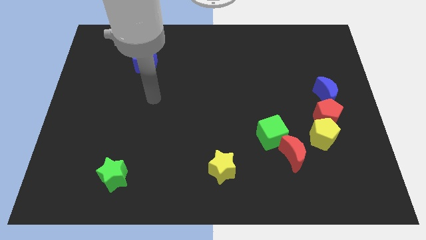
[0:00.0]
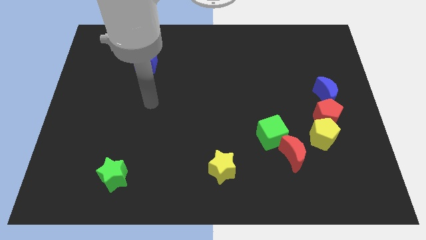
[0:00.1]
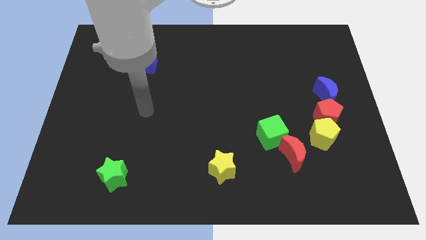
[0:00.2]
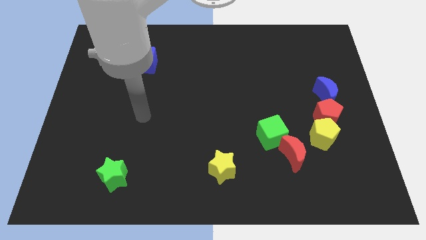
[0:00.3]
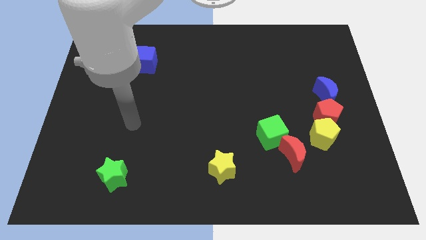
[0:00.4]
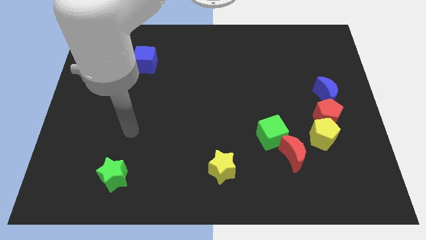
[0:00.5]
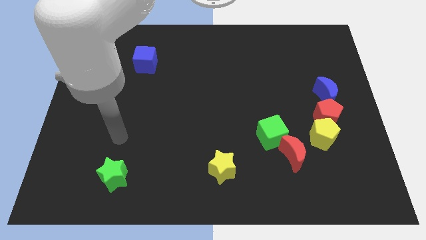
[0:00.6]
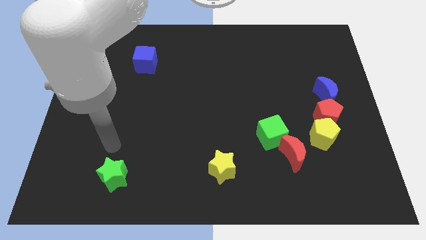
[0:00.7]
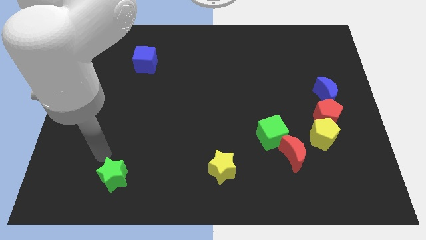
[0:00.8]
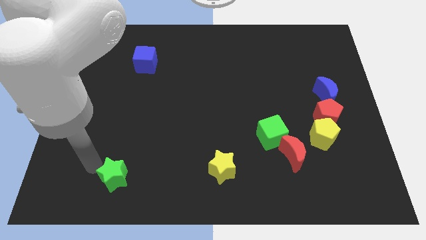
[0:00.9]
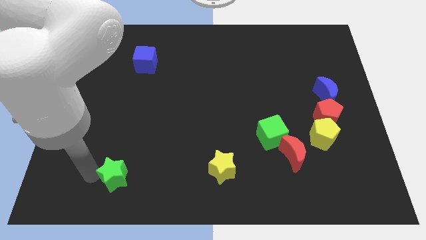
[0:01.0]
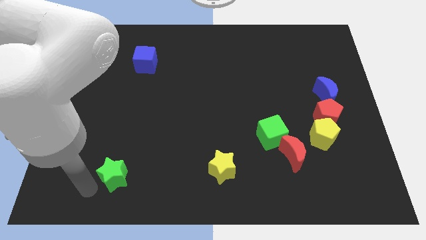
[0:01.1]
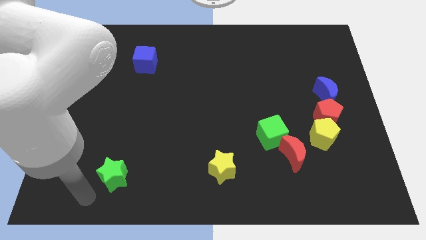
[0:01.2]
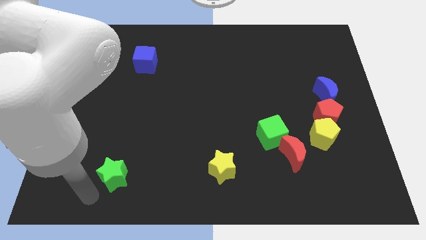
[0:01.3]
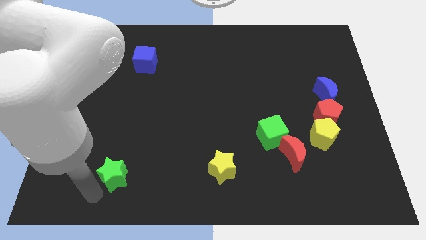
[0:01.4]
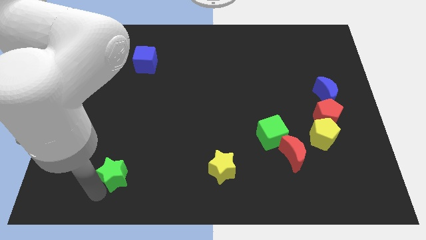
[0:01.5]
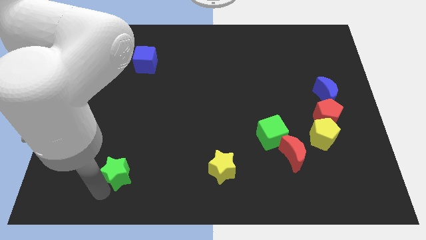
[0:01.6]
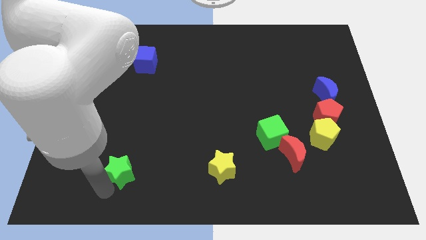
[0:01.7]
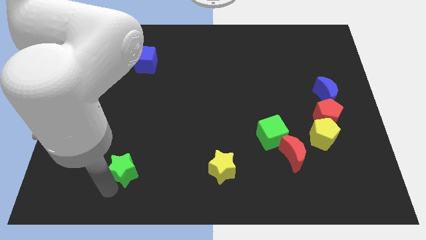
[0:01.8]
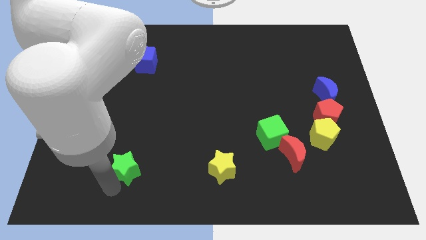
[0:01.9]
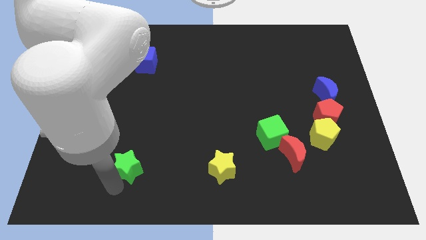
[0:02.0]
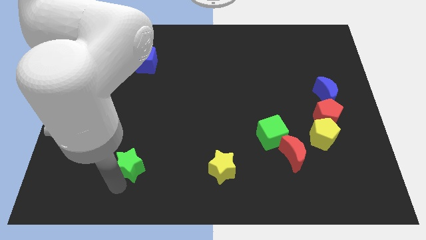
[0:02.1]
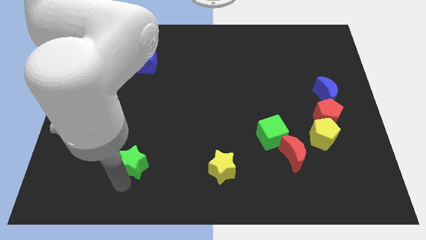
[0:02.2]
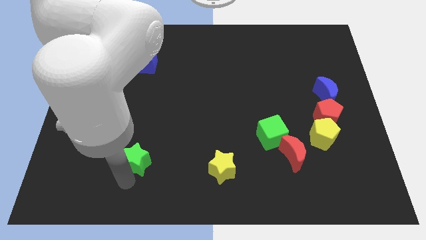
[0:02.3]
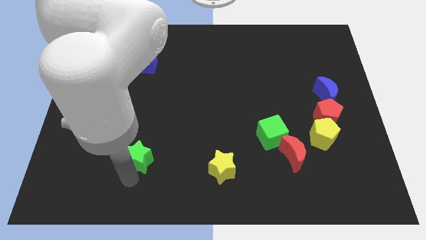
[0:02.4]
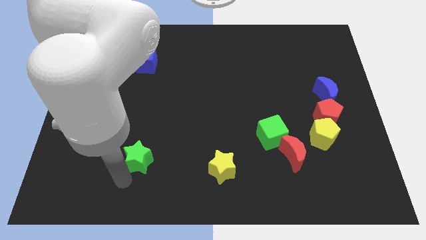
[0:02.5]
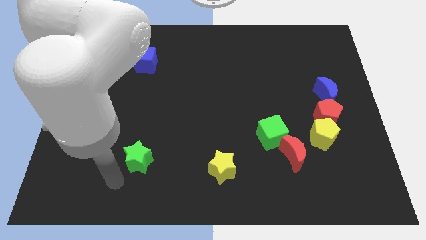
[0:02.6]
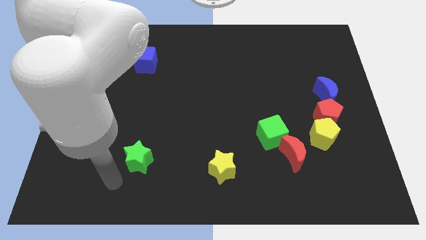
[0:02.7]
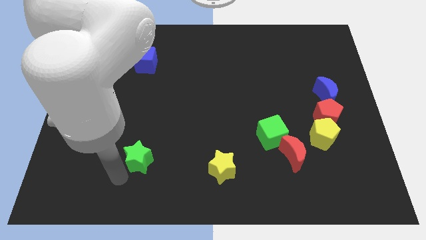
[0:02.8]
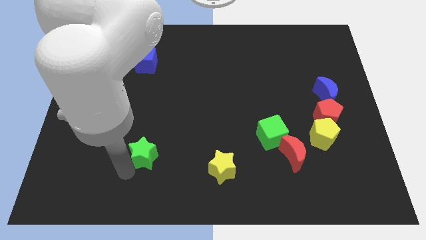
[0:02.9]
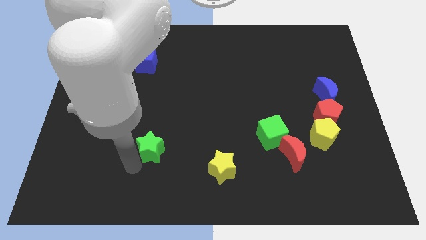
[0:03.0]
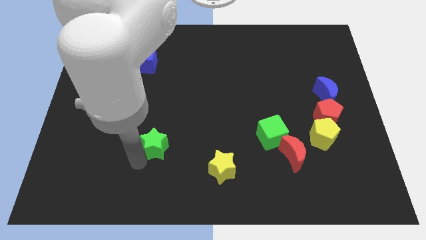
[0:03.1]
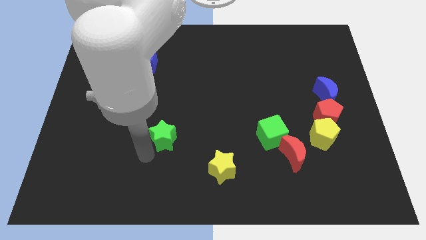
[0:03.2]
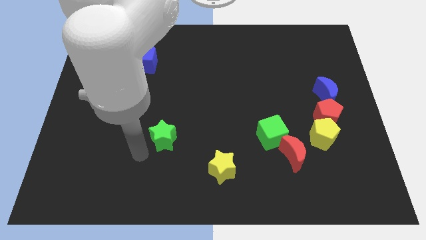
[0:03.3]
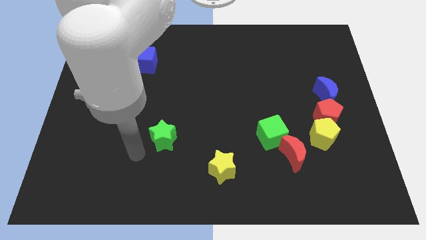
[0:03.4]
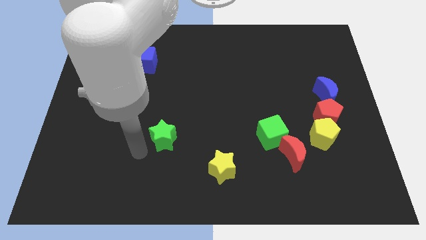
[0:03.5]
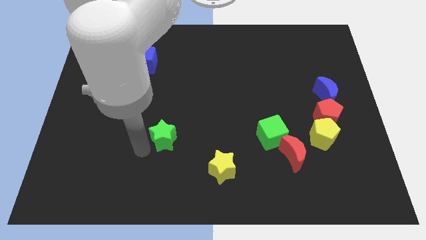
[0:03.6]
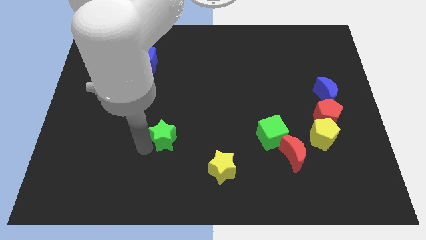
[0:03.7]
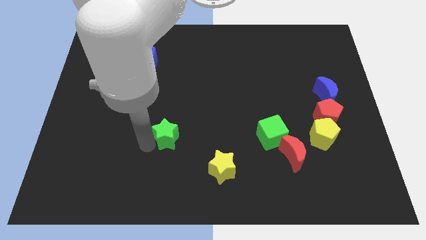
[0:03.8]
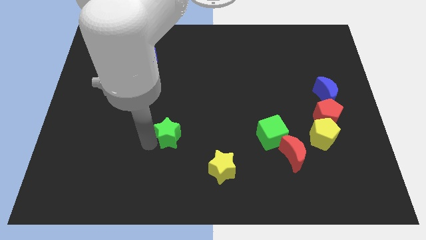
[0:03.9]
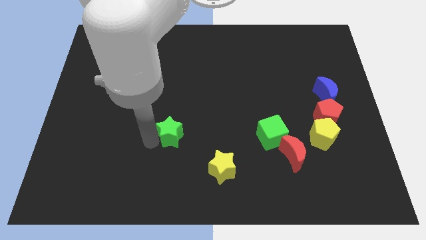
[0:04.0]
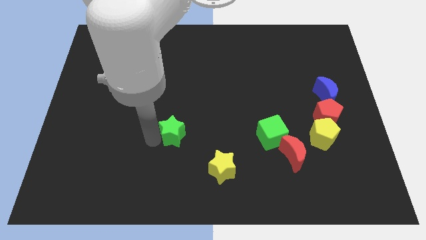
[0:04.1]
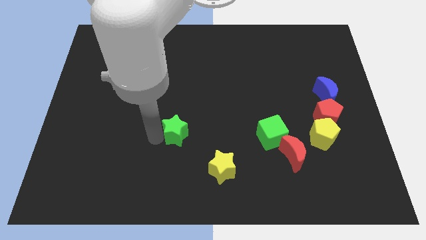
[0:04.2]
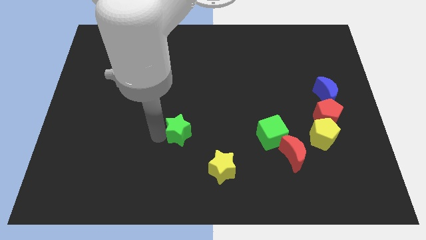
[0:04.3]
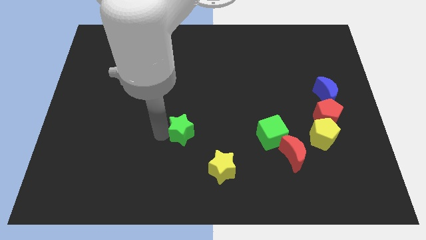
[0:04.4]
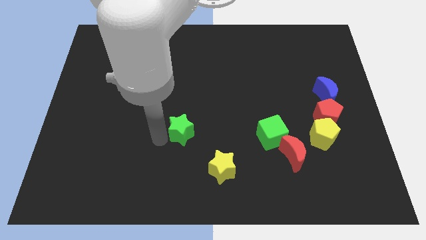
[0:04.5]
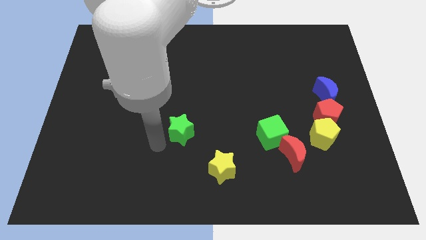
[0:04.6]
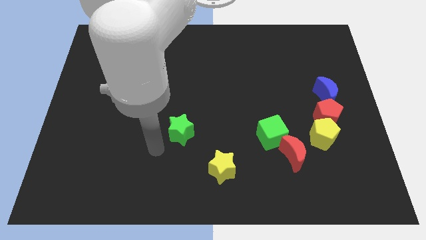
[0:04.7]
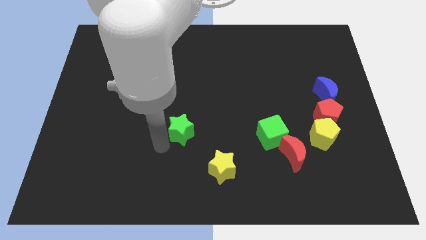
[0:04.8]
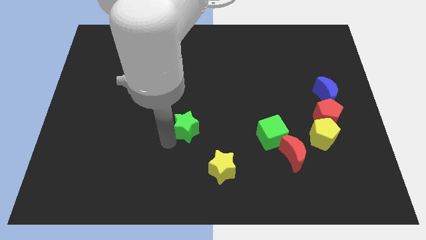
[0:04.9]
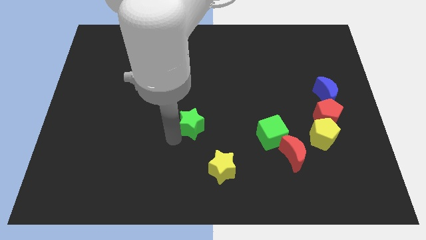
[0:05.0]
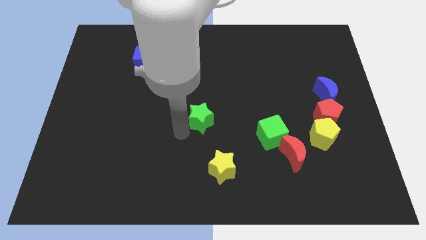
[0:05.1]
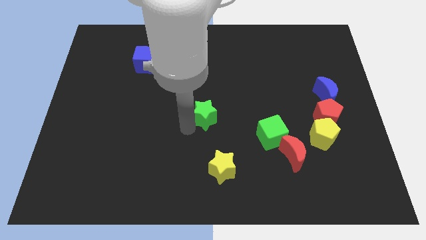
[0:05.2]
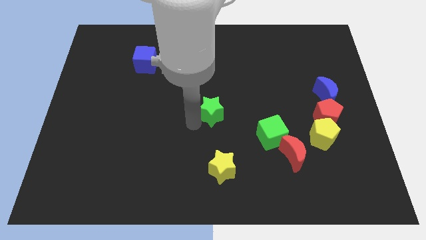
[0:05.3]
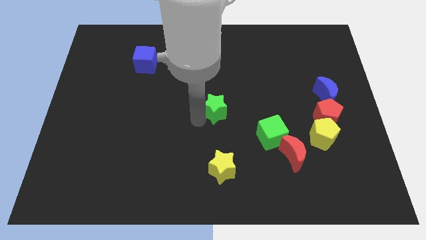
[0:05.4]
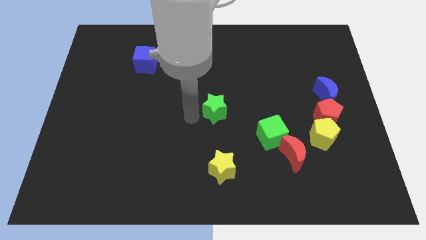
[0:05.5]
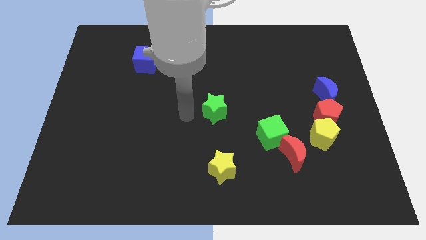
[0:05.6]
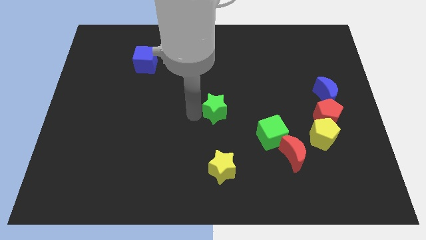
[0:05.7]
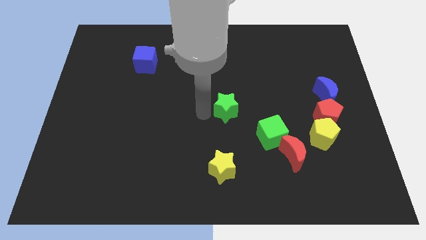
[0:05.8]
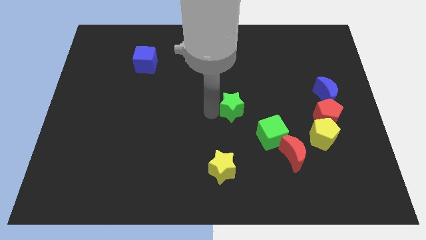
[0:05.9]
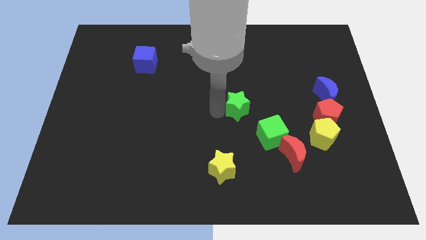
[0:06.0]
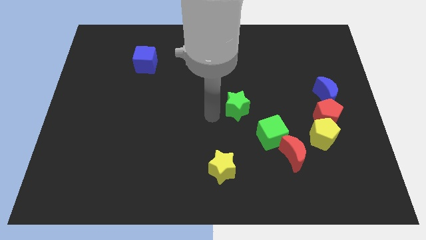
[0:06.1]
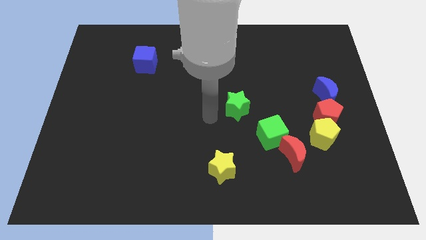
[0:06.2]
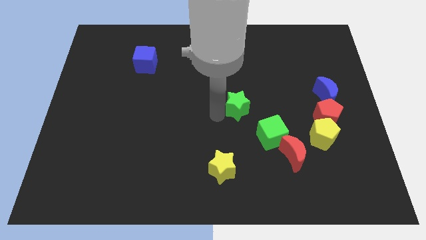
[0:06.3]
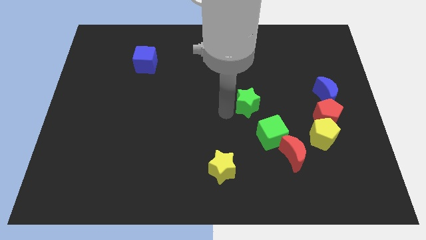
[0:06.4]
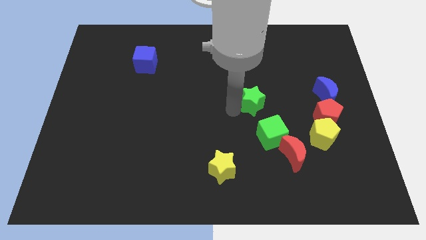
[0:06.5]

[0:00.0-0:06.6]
push the green star to the top side of the green cube

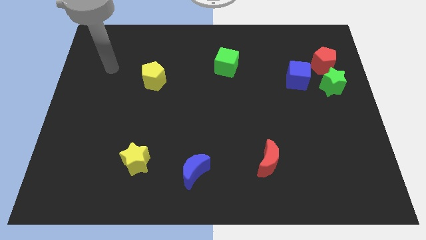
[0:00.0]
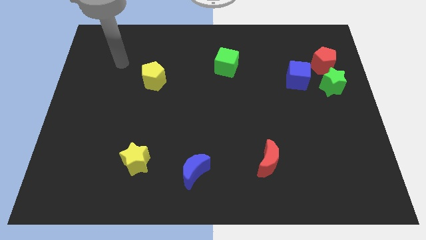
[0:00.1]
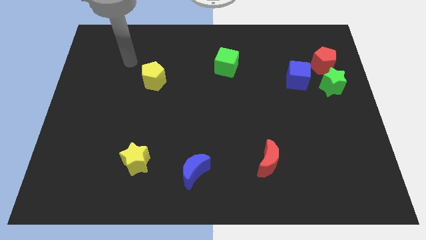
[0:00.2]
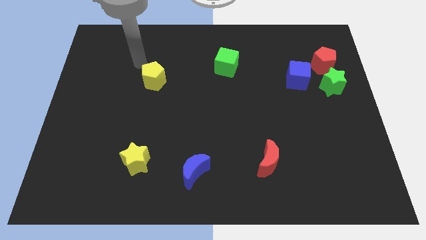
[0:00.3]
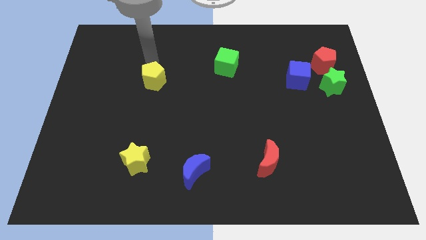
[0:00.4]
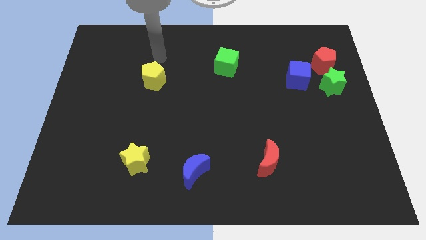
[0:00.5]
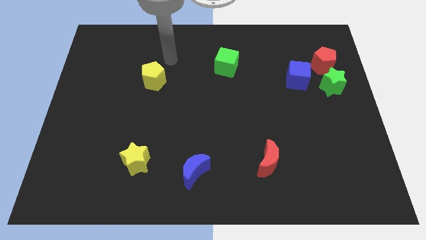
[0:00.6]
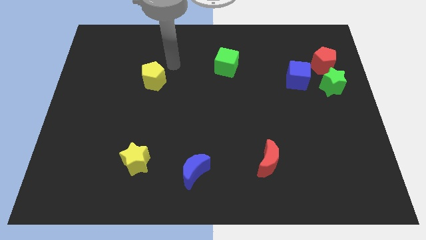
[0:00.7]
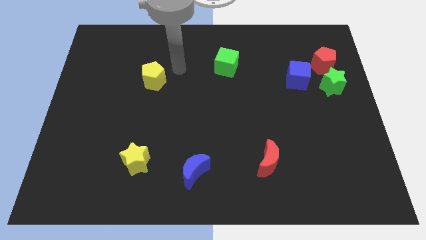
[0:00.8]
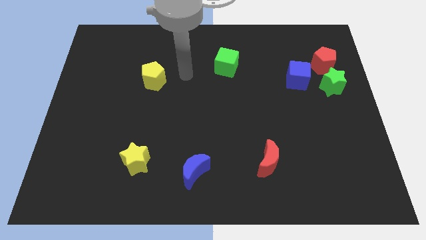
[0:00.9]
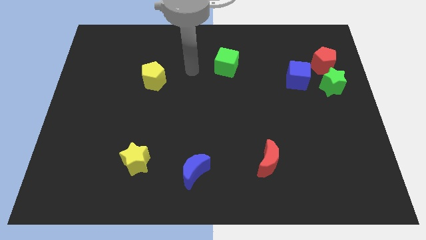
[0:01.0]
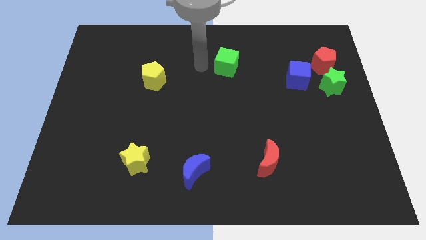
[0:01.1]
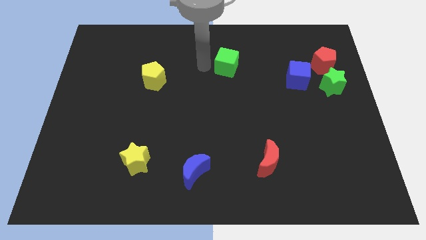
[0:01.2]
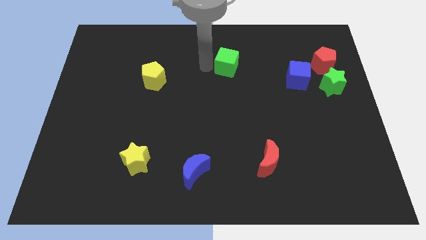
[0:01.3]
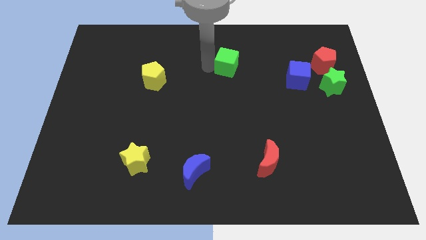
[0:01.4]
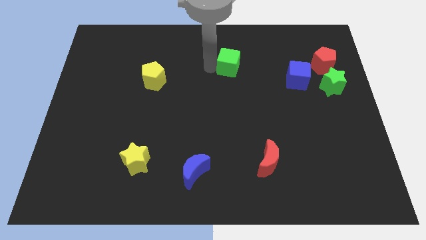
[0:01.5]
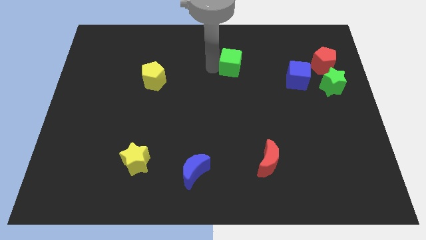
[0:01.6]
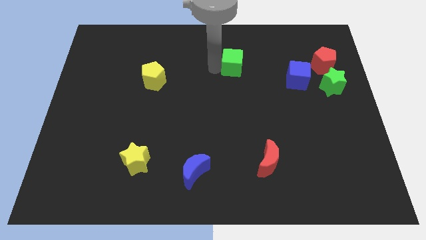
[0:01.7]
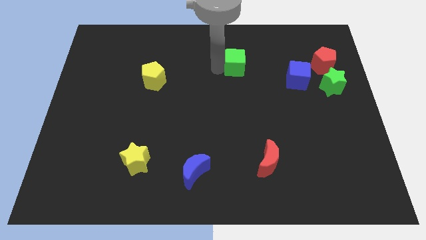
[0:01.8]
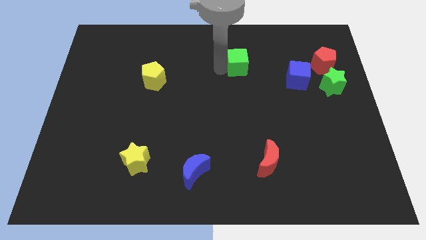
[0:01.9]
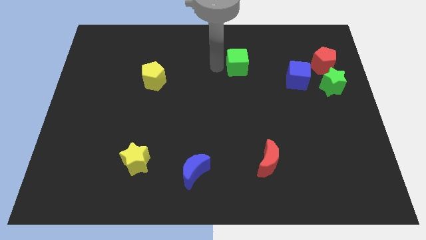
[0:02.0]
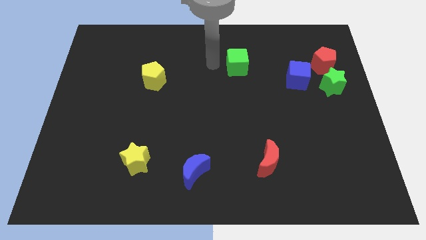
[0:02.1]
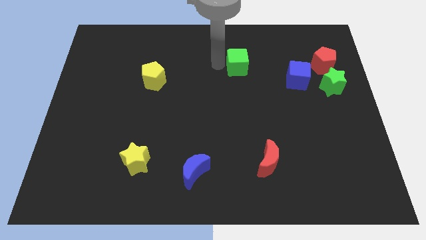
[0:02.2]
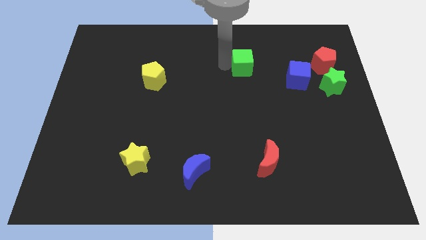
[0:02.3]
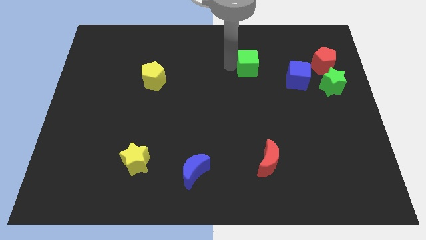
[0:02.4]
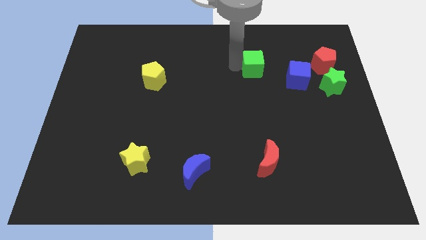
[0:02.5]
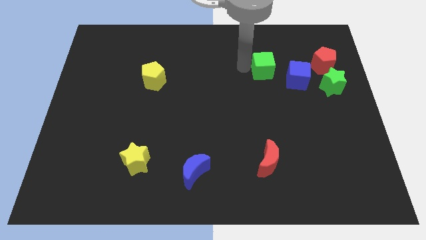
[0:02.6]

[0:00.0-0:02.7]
push the green cube to the left side of the red pentagon
